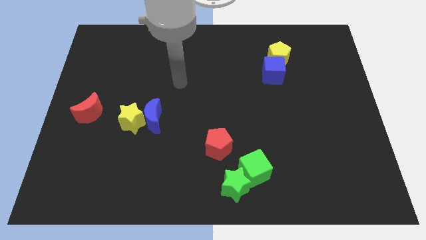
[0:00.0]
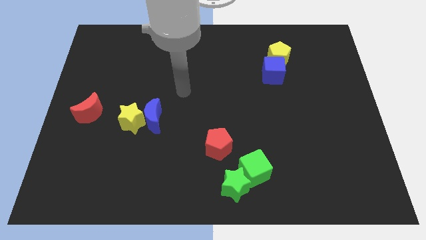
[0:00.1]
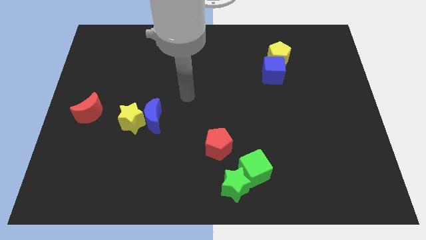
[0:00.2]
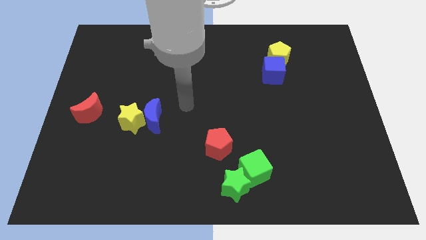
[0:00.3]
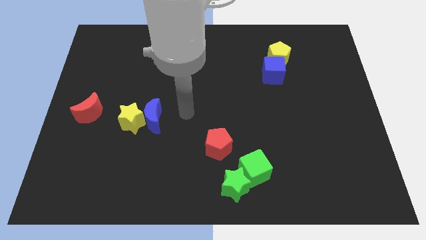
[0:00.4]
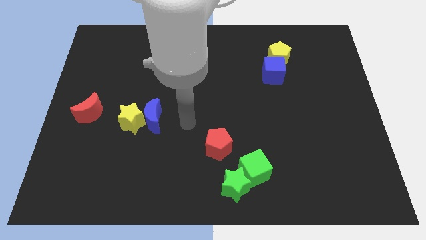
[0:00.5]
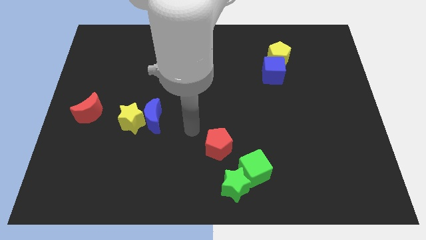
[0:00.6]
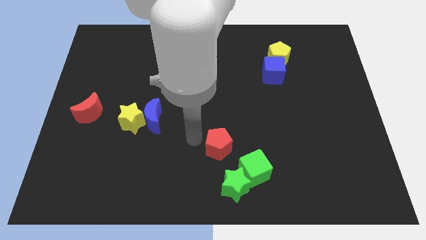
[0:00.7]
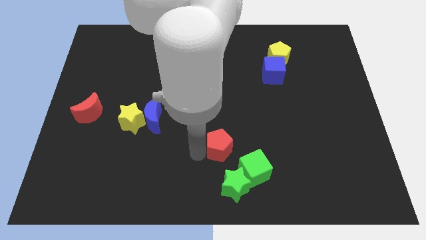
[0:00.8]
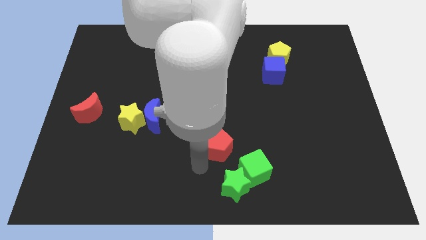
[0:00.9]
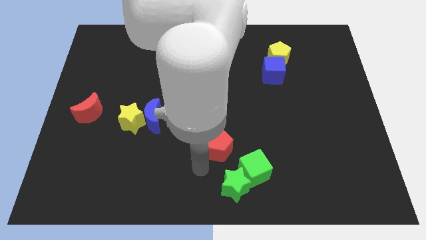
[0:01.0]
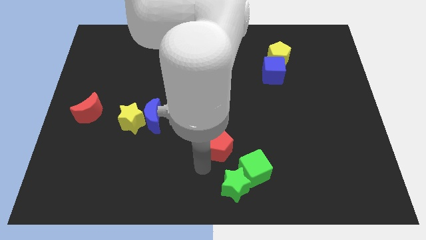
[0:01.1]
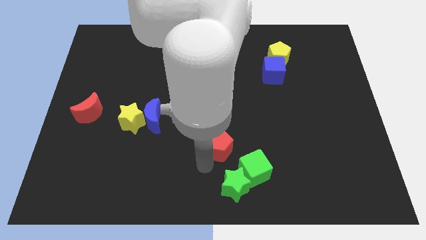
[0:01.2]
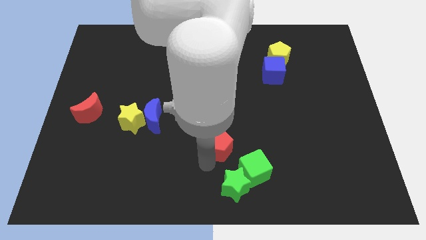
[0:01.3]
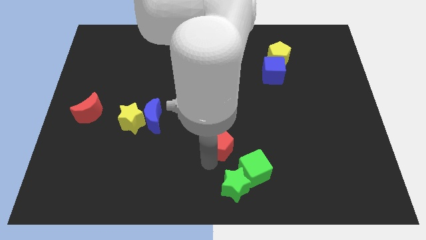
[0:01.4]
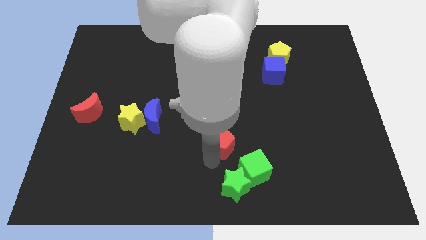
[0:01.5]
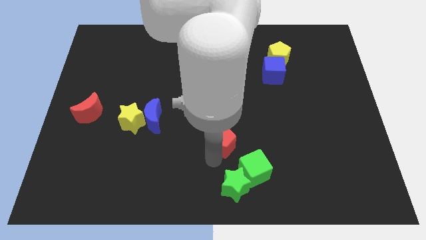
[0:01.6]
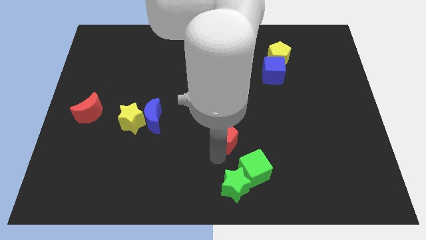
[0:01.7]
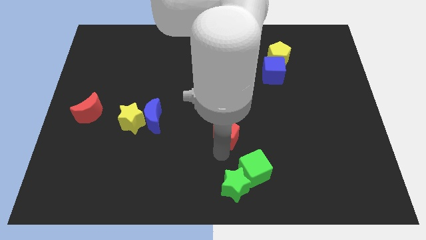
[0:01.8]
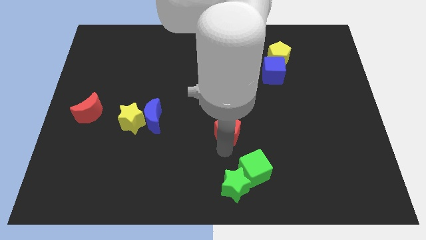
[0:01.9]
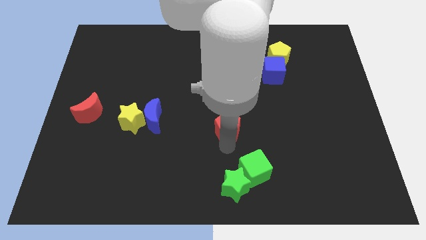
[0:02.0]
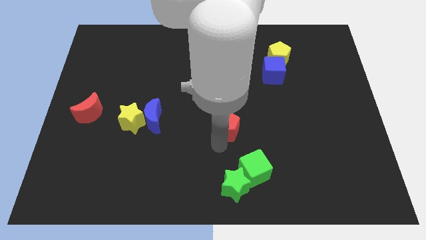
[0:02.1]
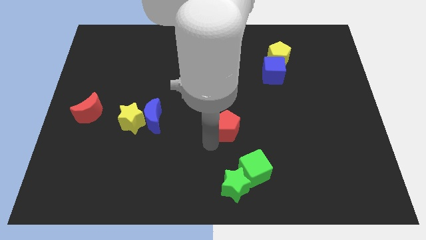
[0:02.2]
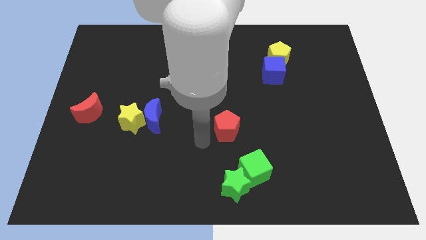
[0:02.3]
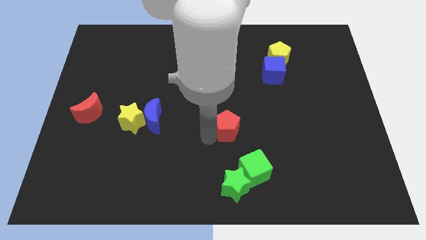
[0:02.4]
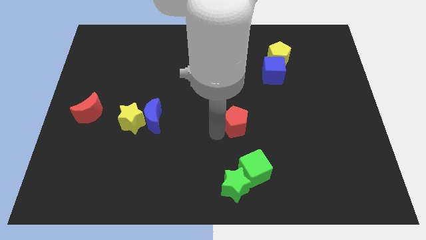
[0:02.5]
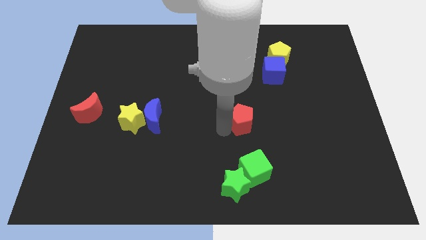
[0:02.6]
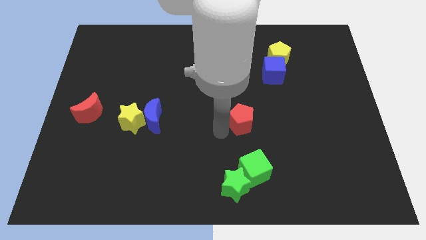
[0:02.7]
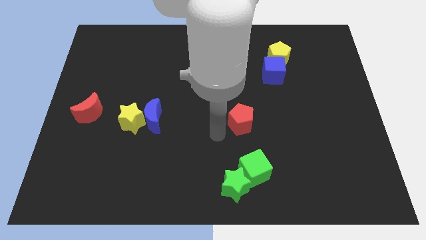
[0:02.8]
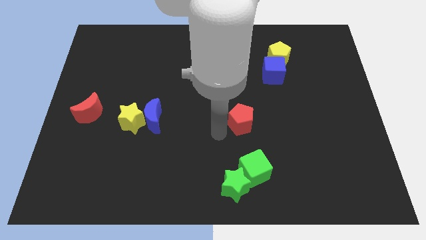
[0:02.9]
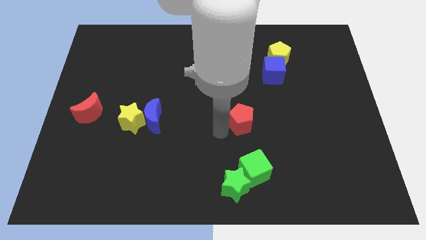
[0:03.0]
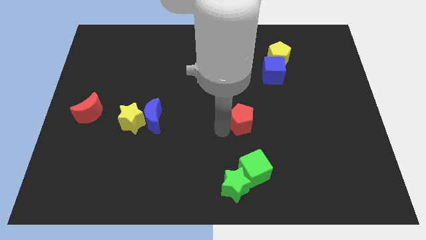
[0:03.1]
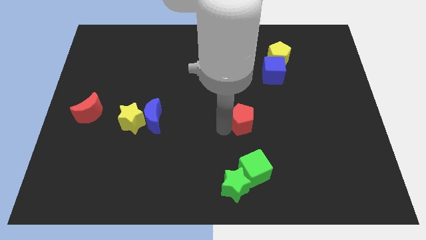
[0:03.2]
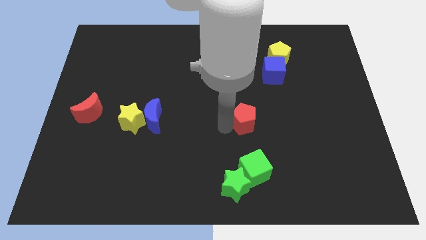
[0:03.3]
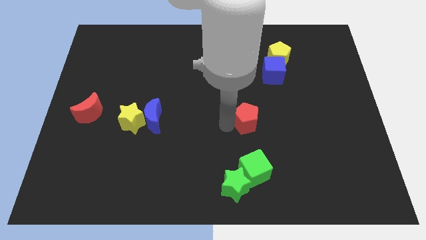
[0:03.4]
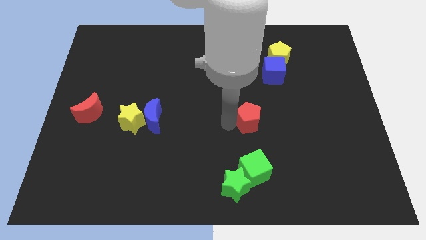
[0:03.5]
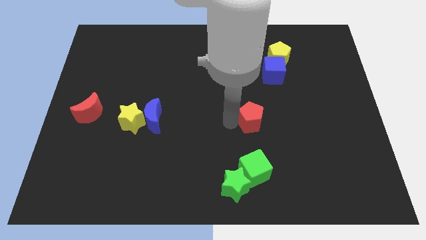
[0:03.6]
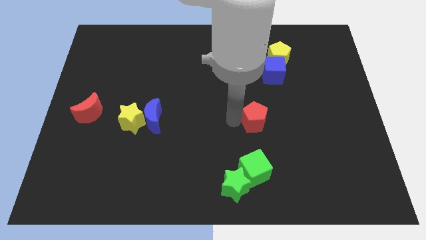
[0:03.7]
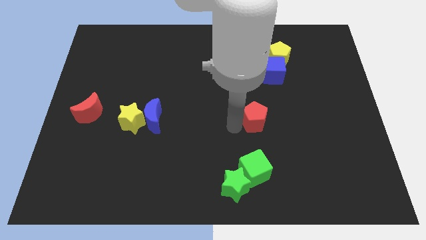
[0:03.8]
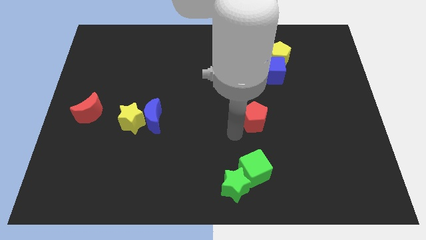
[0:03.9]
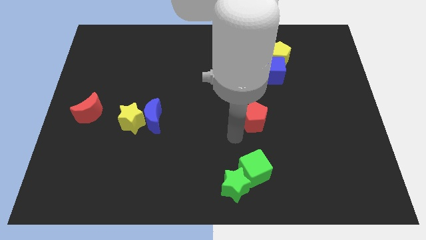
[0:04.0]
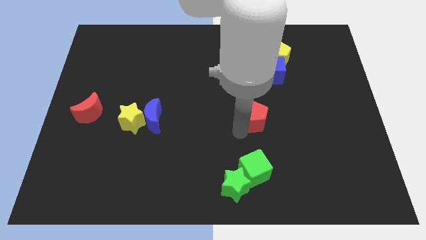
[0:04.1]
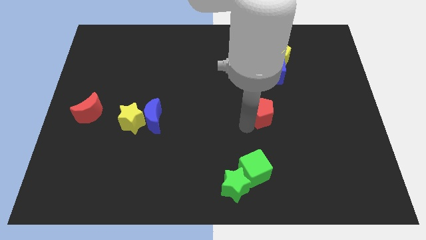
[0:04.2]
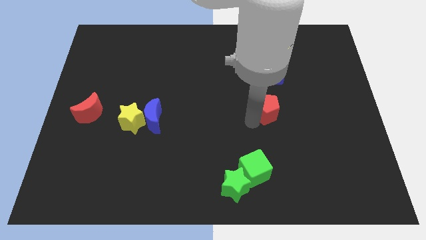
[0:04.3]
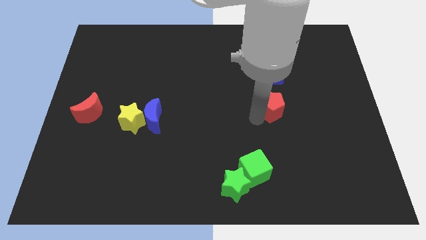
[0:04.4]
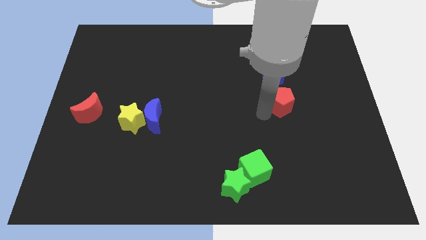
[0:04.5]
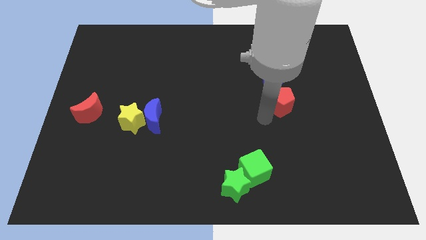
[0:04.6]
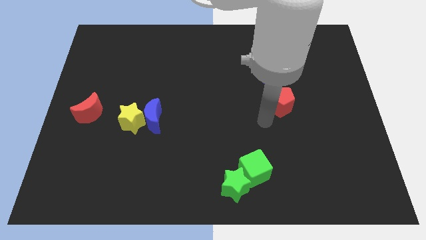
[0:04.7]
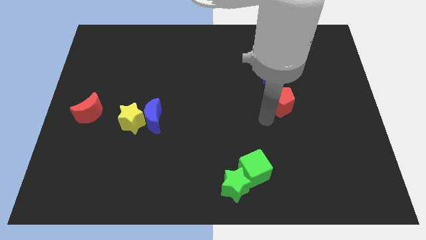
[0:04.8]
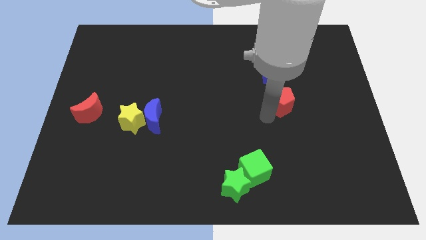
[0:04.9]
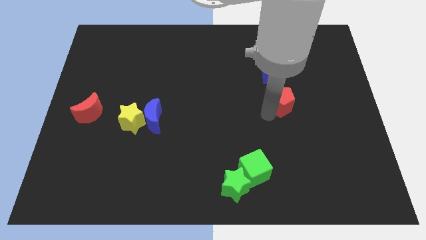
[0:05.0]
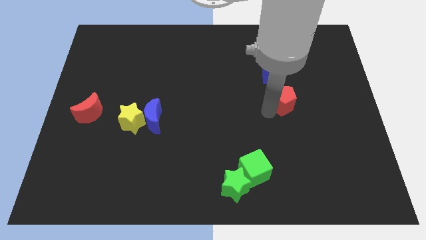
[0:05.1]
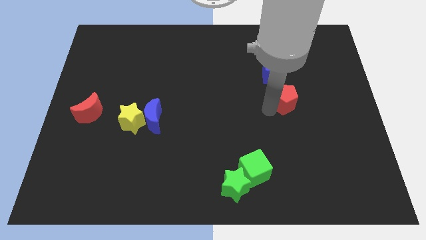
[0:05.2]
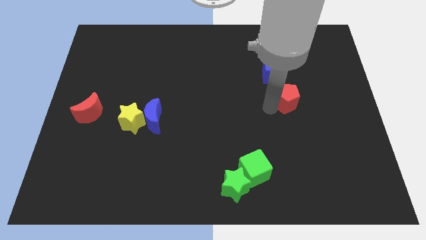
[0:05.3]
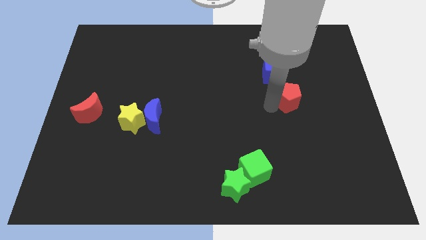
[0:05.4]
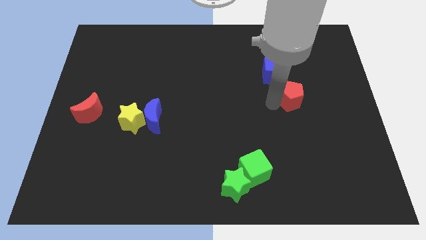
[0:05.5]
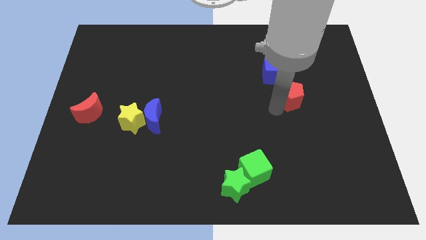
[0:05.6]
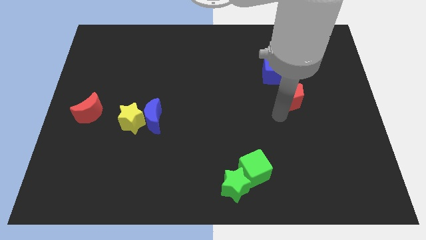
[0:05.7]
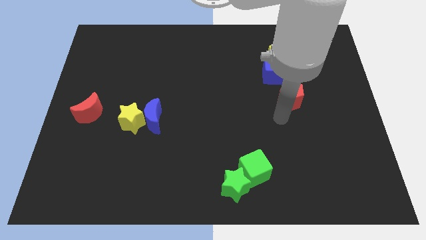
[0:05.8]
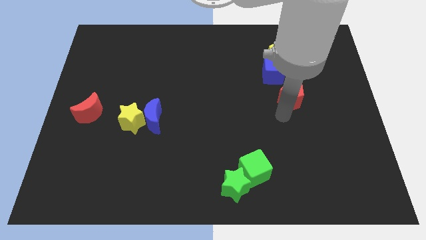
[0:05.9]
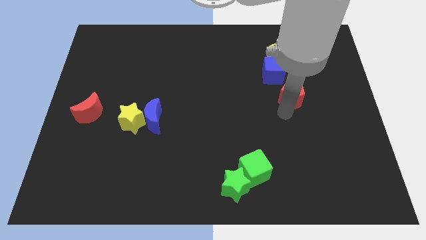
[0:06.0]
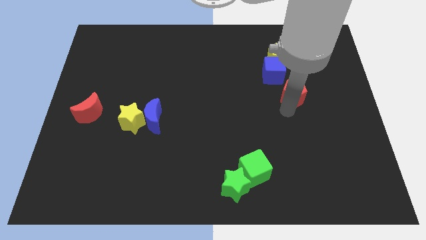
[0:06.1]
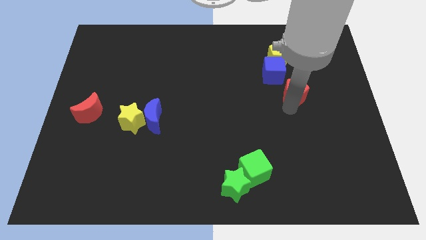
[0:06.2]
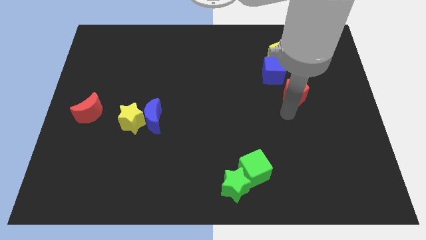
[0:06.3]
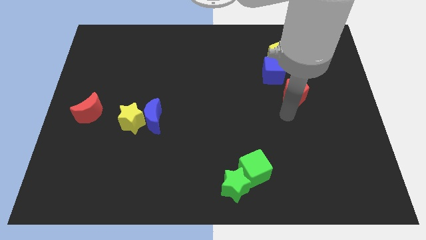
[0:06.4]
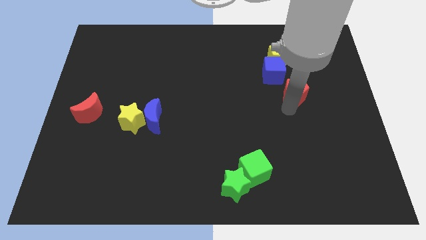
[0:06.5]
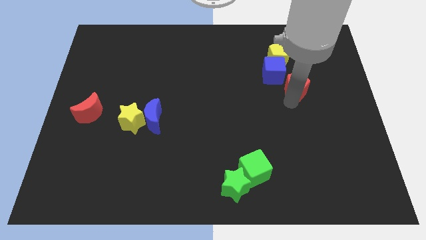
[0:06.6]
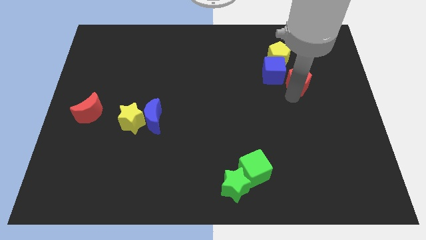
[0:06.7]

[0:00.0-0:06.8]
push the red pentagon to the bottom right side of the yellow pentagon
